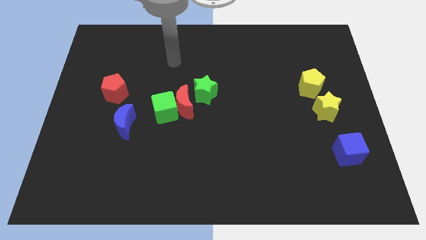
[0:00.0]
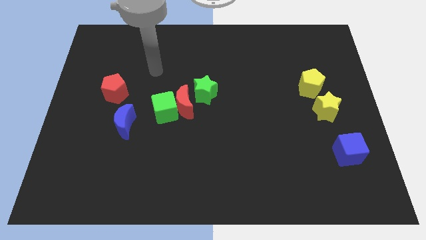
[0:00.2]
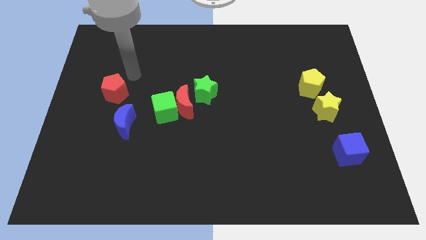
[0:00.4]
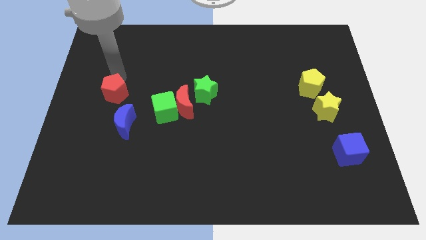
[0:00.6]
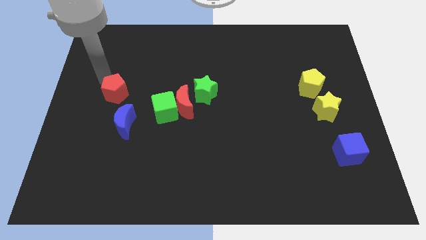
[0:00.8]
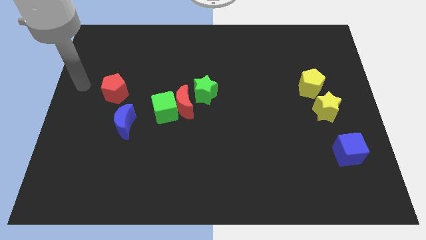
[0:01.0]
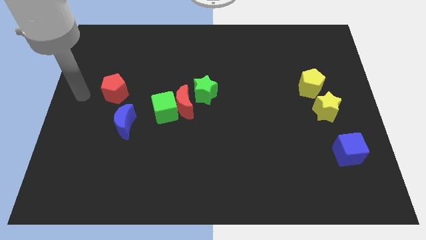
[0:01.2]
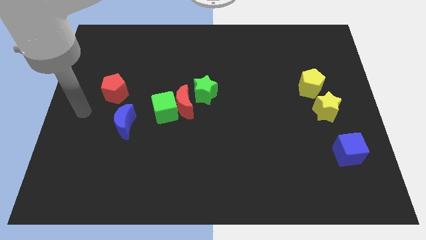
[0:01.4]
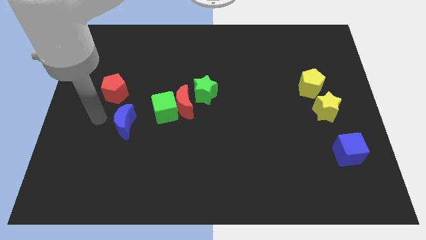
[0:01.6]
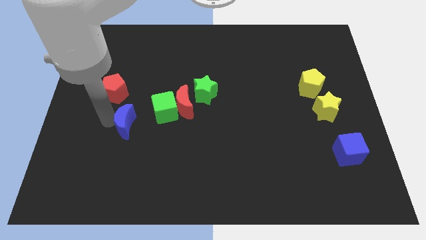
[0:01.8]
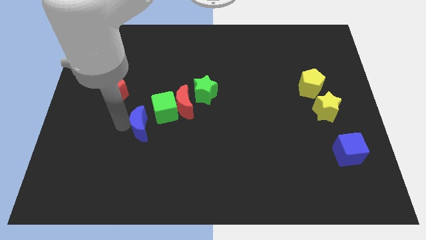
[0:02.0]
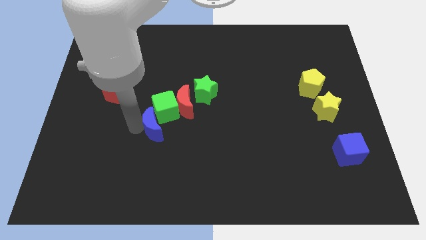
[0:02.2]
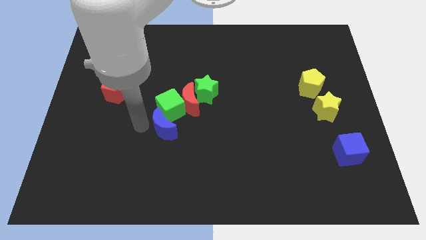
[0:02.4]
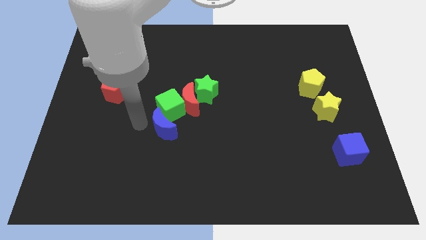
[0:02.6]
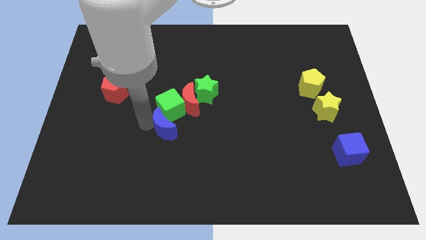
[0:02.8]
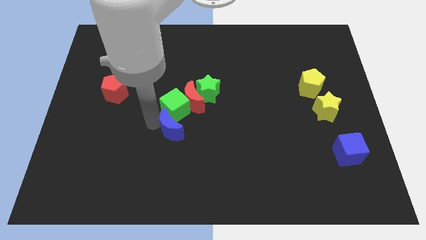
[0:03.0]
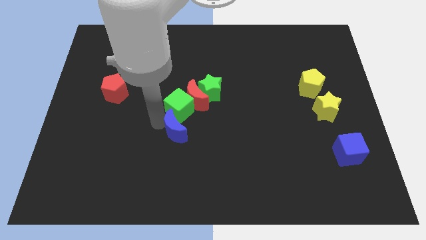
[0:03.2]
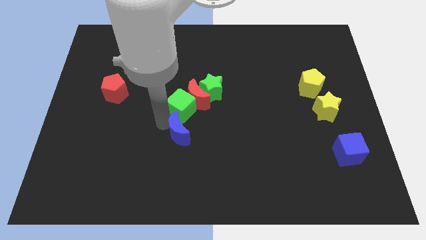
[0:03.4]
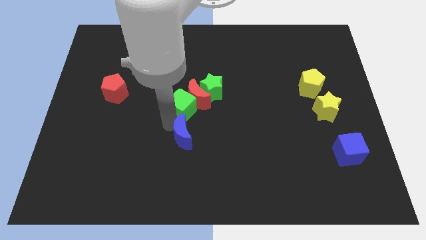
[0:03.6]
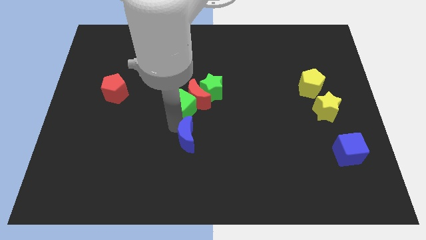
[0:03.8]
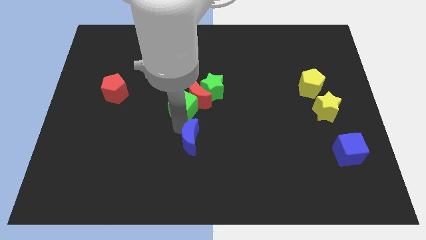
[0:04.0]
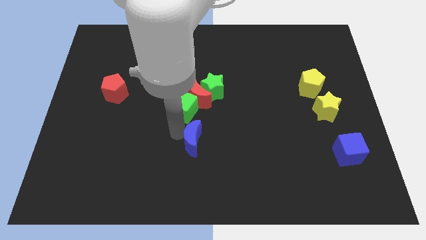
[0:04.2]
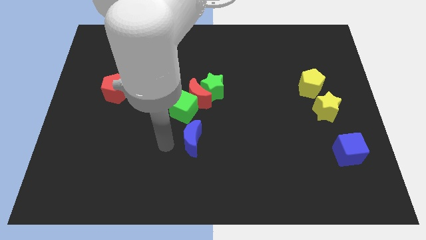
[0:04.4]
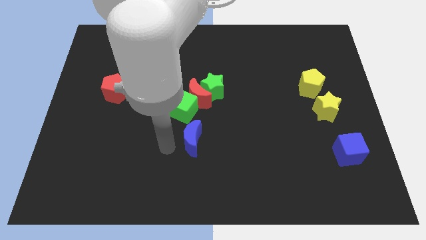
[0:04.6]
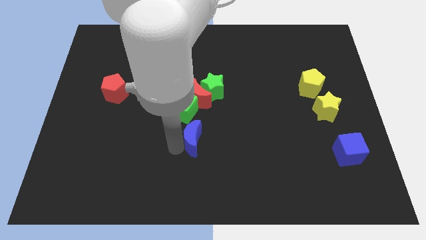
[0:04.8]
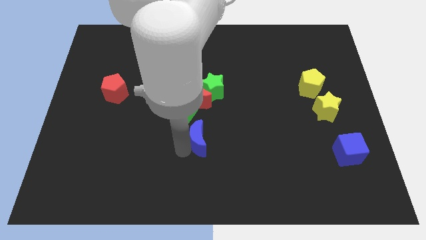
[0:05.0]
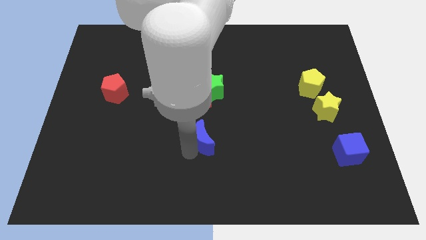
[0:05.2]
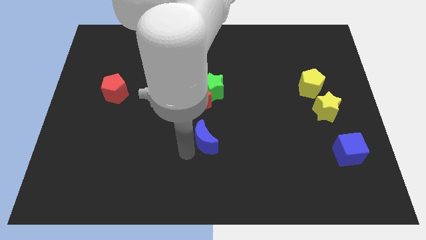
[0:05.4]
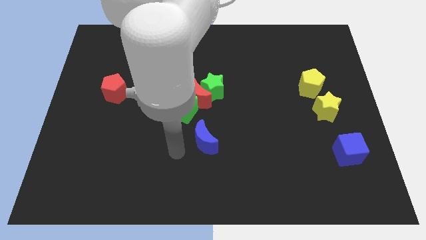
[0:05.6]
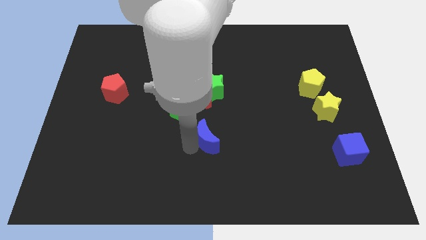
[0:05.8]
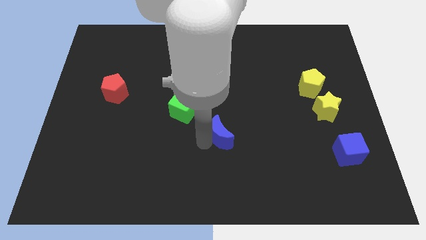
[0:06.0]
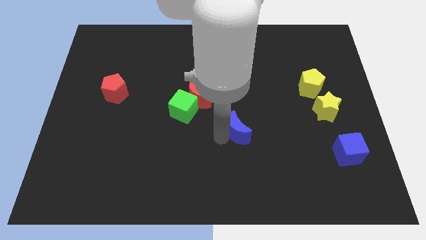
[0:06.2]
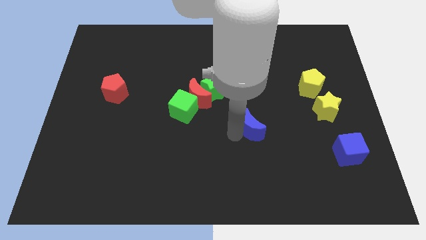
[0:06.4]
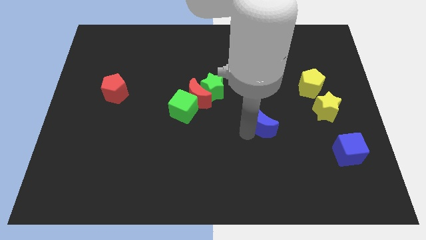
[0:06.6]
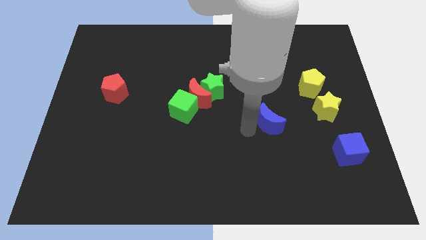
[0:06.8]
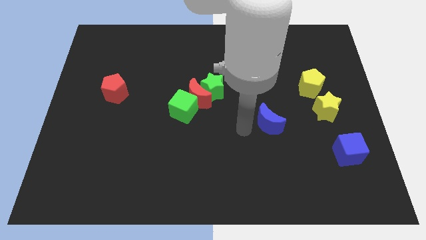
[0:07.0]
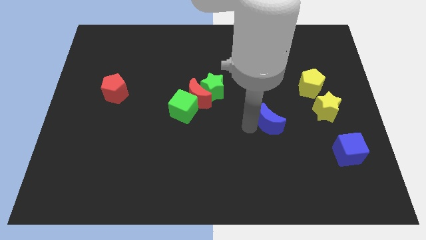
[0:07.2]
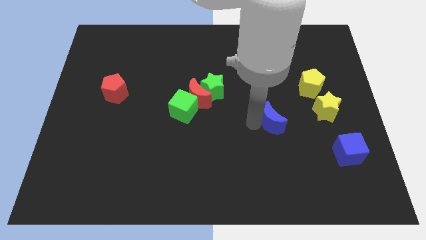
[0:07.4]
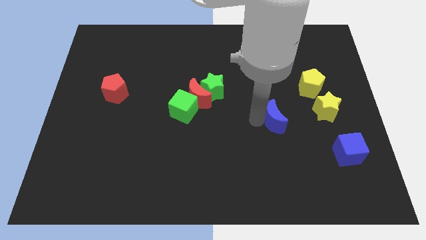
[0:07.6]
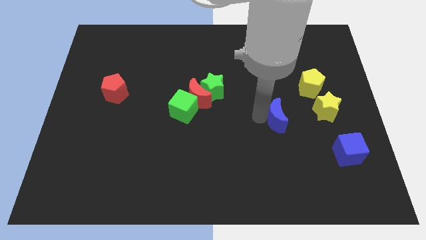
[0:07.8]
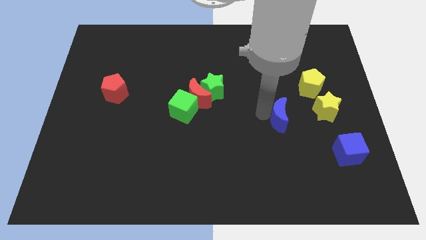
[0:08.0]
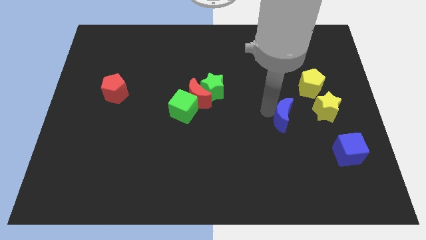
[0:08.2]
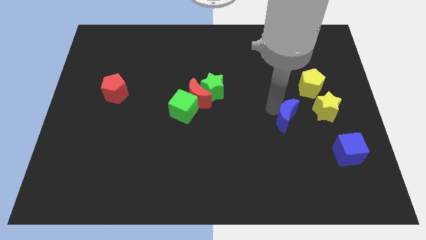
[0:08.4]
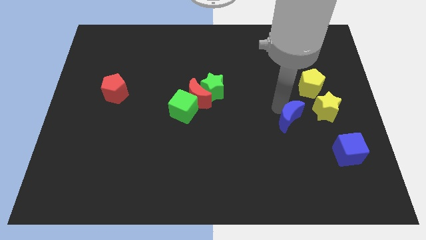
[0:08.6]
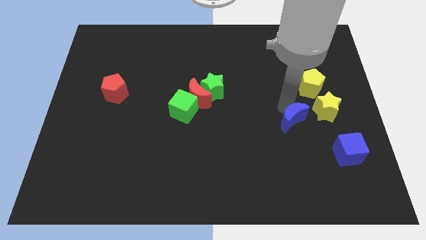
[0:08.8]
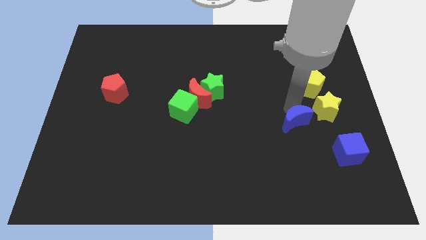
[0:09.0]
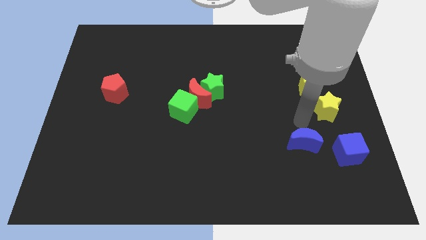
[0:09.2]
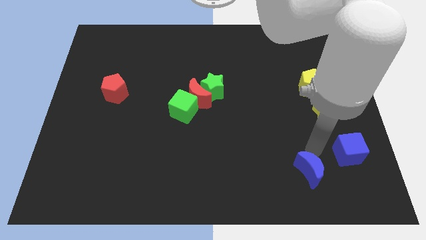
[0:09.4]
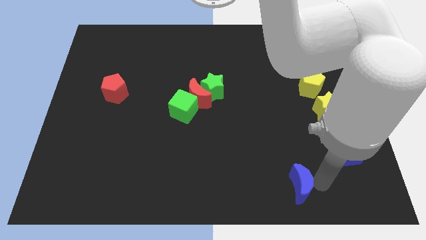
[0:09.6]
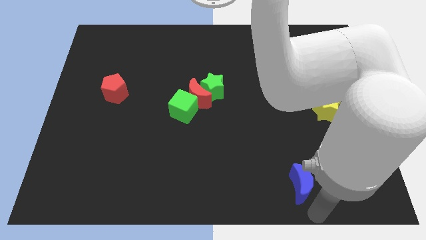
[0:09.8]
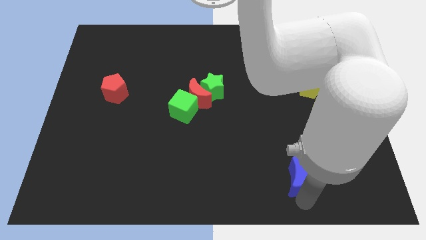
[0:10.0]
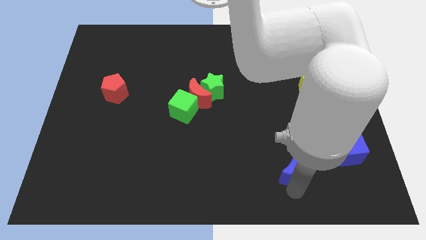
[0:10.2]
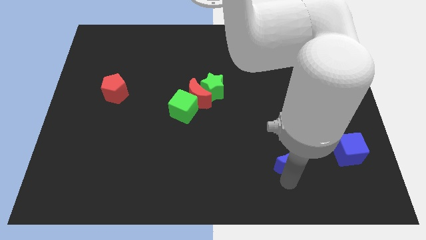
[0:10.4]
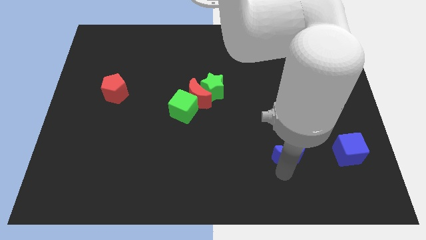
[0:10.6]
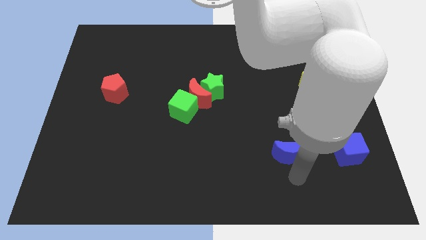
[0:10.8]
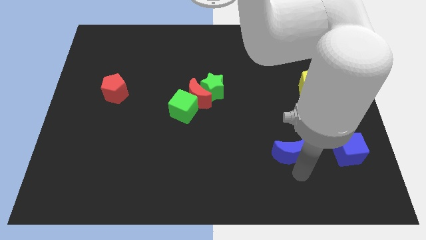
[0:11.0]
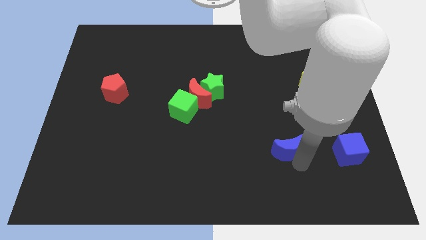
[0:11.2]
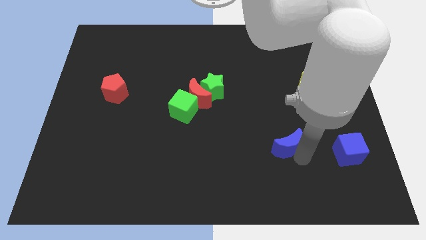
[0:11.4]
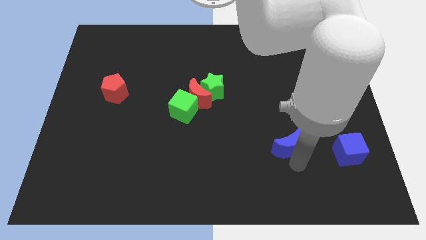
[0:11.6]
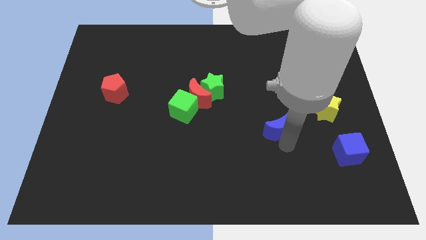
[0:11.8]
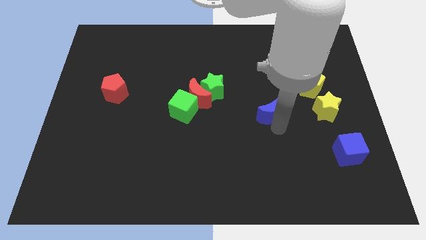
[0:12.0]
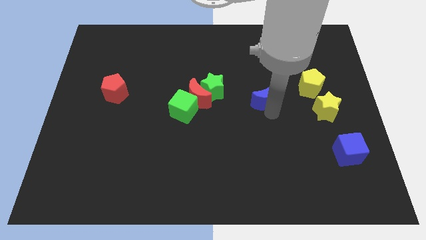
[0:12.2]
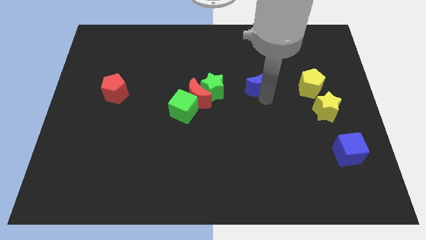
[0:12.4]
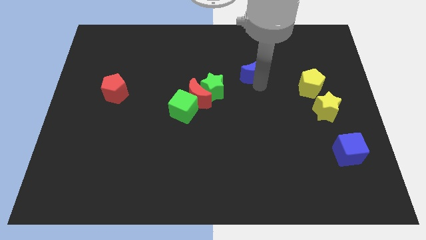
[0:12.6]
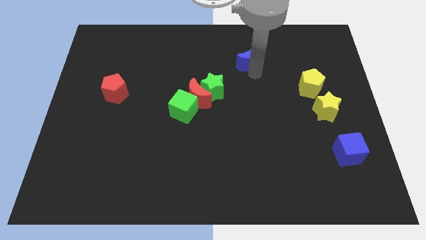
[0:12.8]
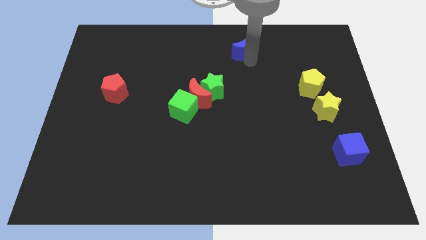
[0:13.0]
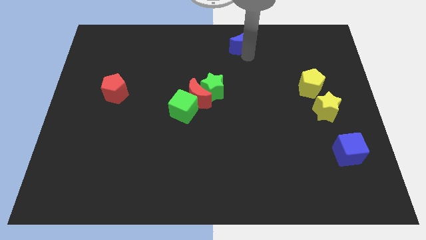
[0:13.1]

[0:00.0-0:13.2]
put the blue moon to the towards your base
